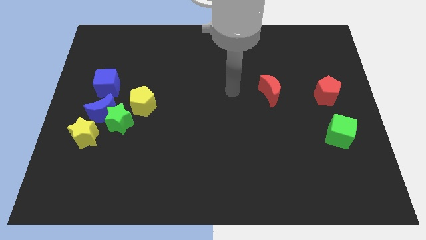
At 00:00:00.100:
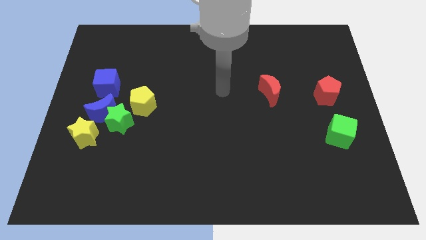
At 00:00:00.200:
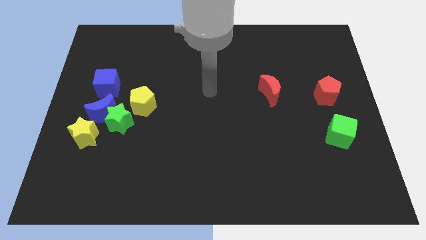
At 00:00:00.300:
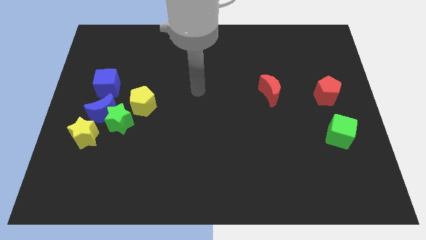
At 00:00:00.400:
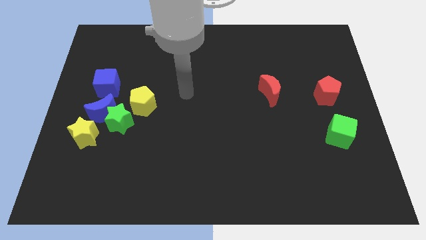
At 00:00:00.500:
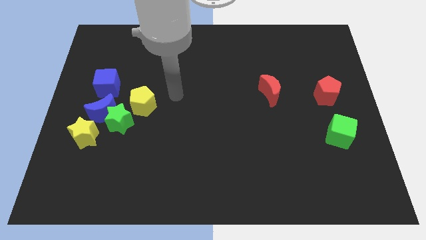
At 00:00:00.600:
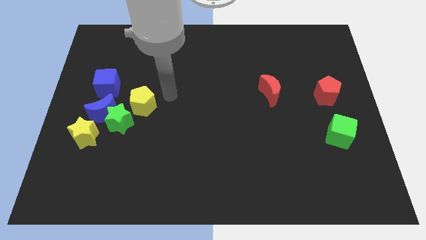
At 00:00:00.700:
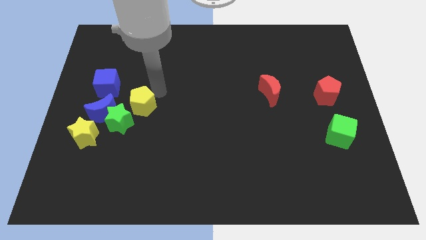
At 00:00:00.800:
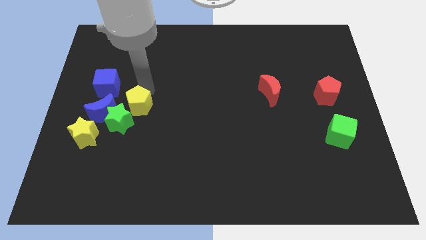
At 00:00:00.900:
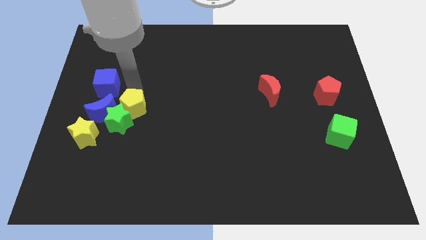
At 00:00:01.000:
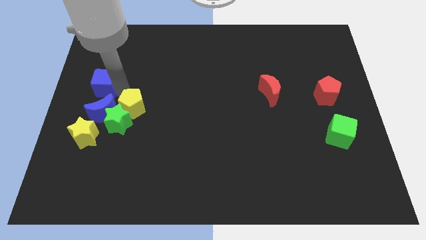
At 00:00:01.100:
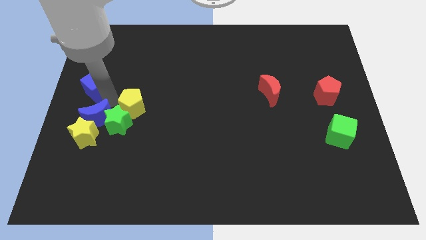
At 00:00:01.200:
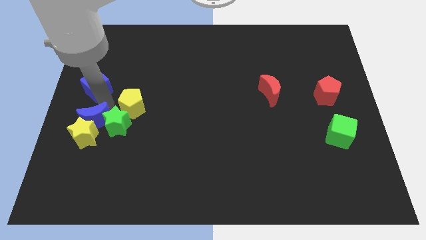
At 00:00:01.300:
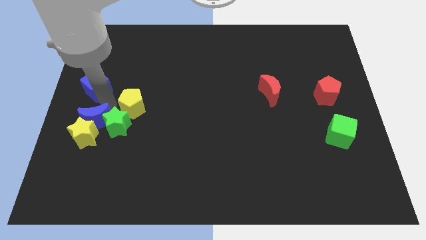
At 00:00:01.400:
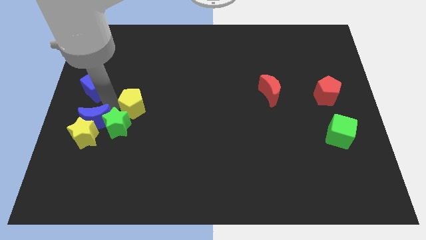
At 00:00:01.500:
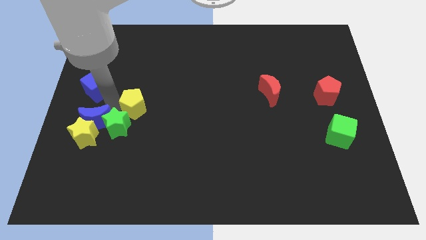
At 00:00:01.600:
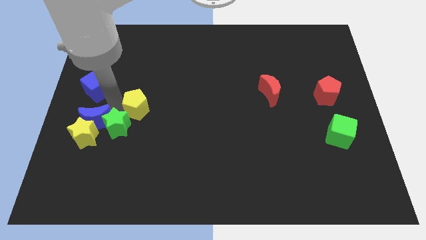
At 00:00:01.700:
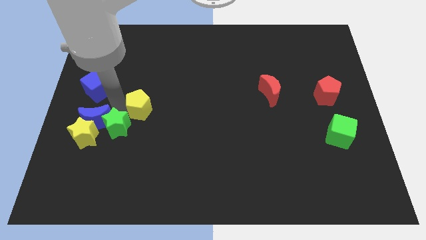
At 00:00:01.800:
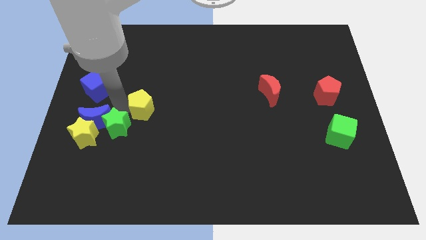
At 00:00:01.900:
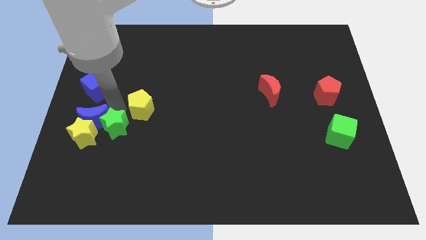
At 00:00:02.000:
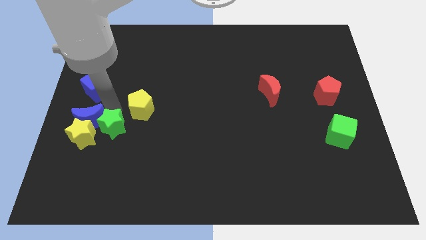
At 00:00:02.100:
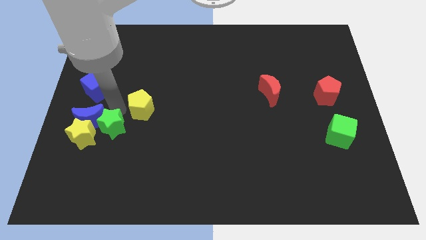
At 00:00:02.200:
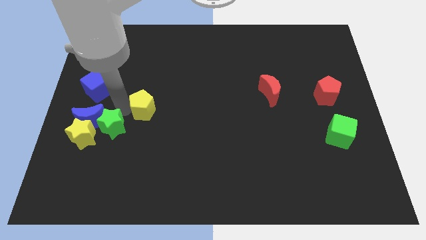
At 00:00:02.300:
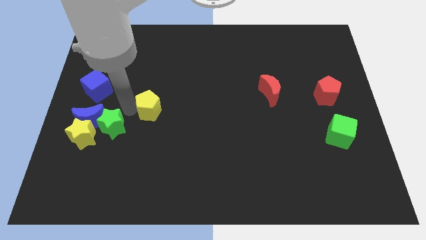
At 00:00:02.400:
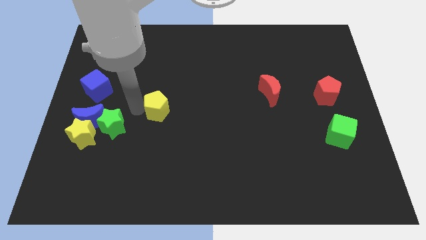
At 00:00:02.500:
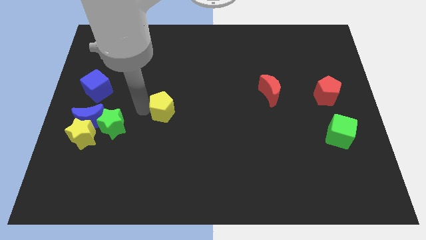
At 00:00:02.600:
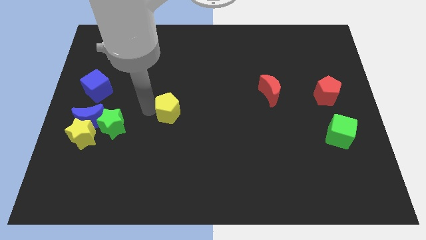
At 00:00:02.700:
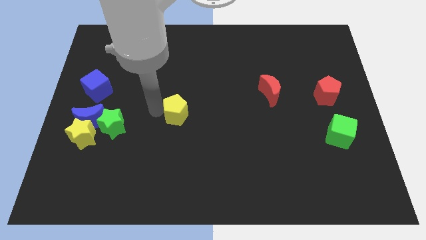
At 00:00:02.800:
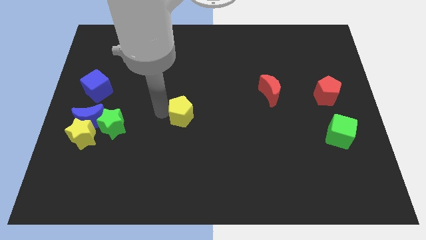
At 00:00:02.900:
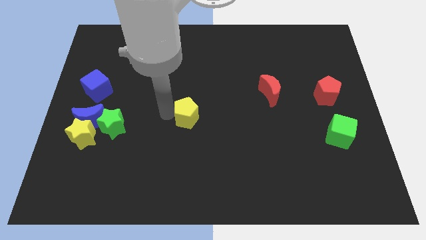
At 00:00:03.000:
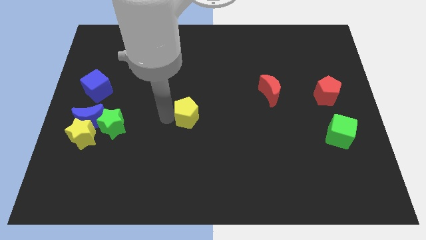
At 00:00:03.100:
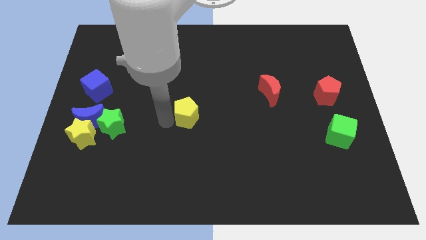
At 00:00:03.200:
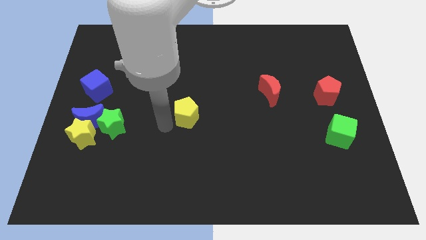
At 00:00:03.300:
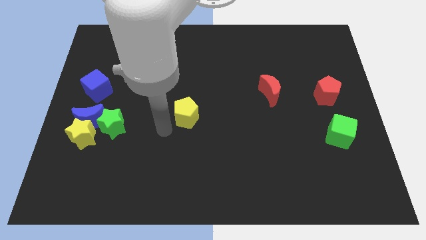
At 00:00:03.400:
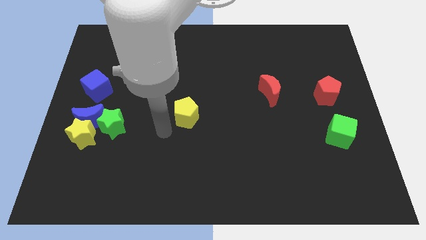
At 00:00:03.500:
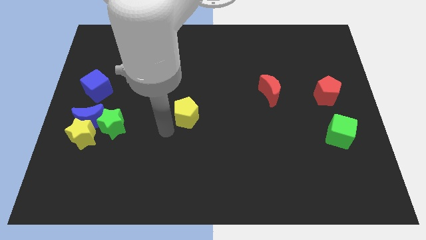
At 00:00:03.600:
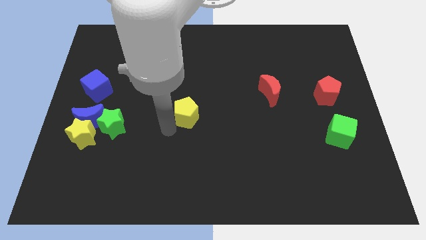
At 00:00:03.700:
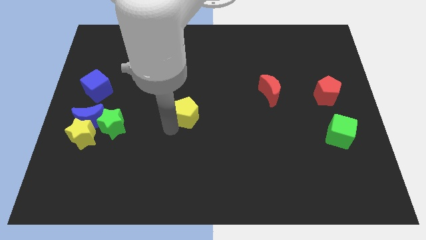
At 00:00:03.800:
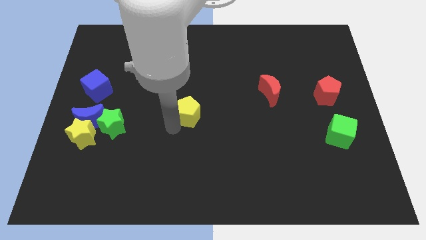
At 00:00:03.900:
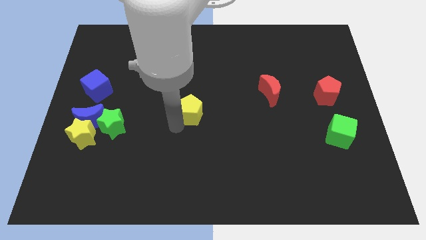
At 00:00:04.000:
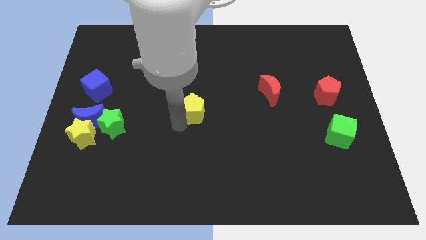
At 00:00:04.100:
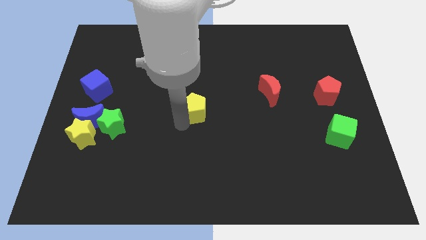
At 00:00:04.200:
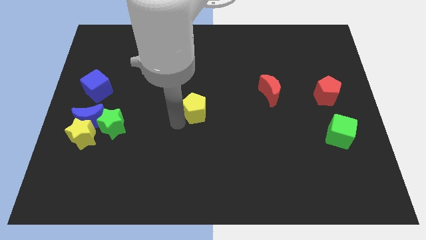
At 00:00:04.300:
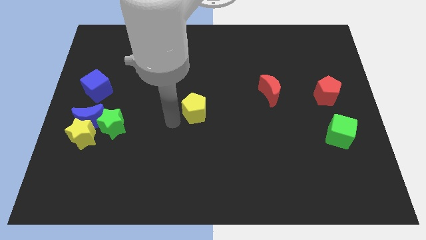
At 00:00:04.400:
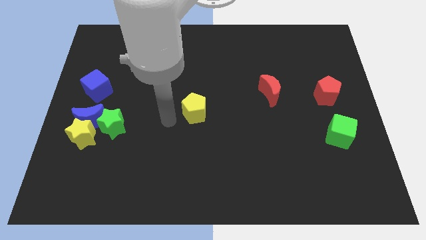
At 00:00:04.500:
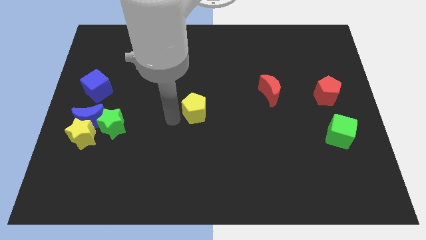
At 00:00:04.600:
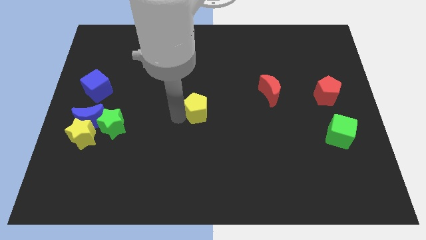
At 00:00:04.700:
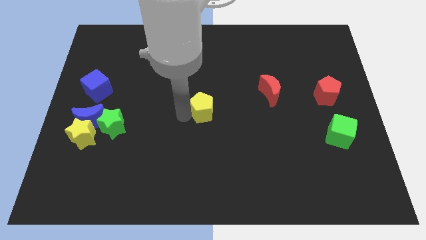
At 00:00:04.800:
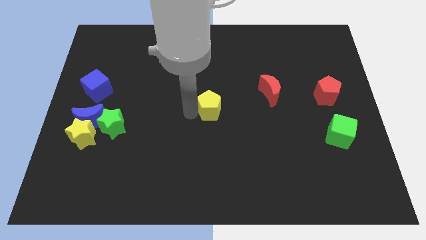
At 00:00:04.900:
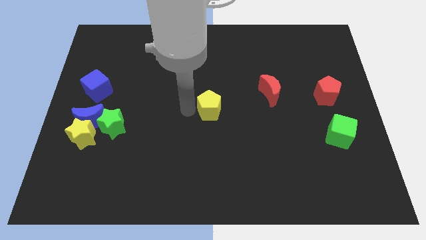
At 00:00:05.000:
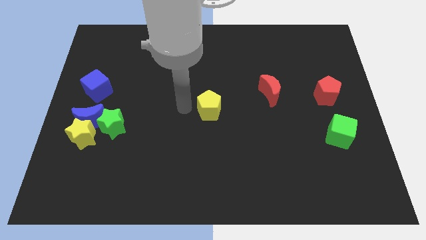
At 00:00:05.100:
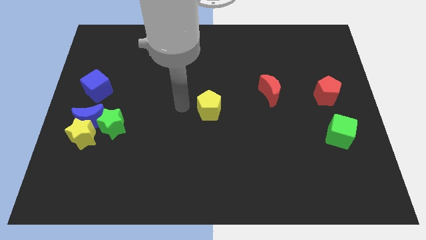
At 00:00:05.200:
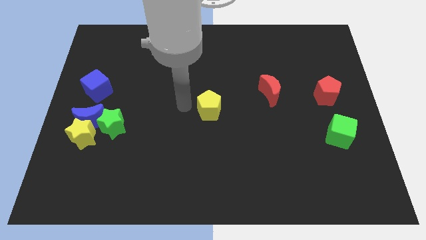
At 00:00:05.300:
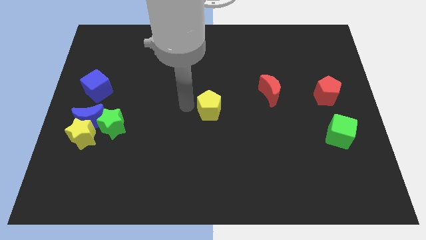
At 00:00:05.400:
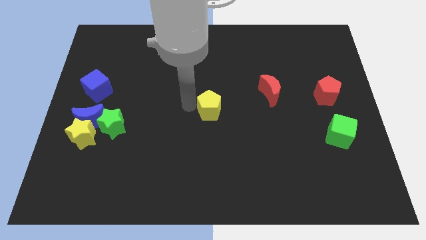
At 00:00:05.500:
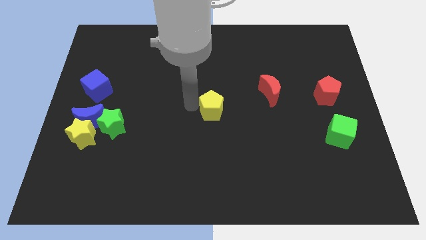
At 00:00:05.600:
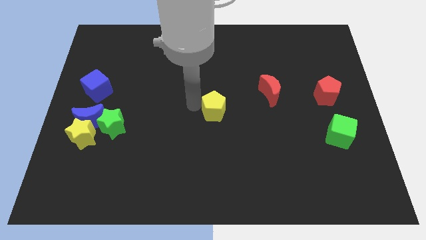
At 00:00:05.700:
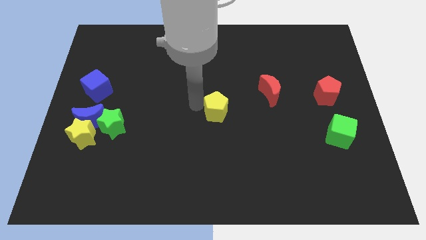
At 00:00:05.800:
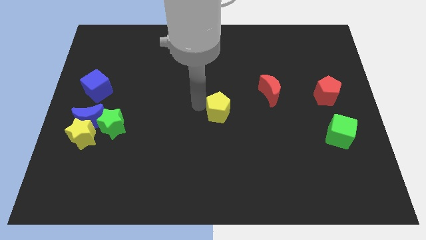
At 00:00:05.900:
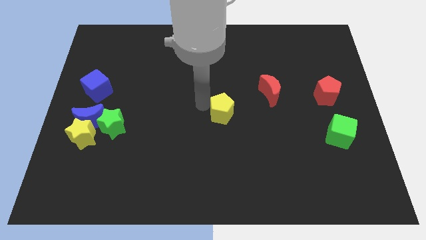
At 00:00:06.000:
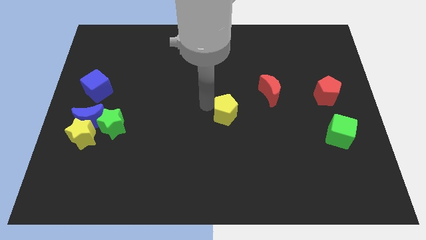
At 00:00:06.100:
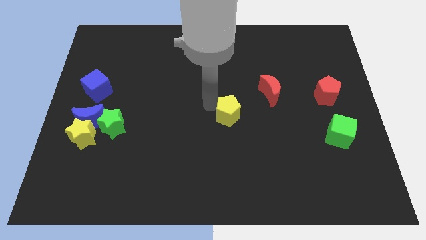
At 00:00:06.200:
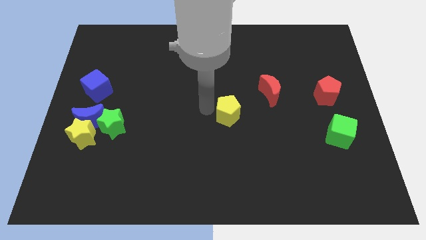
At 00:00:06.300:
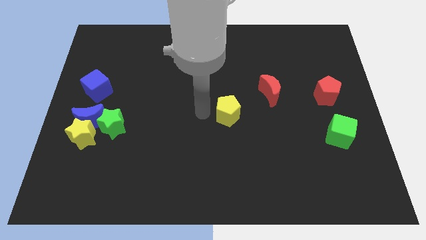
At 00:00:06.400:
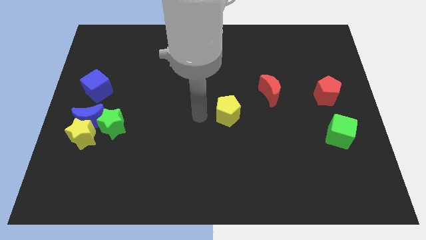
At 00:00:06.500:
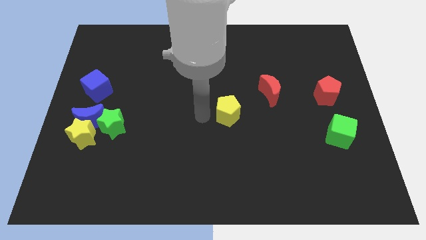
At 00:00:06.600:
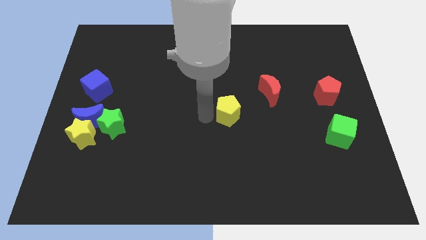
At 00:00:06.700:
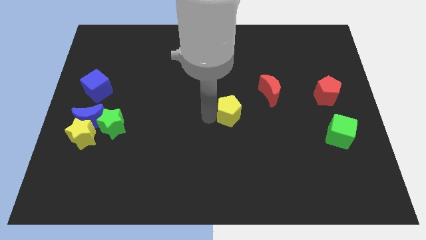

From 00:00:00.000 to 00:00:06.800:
push the yellow pentagon to the right

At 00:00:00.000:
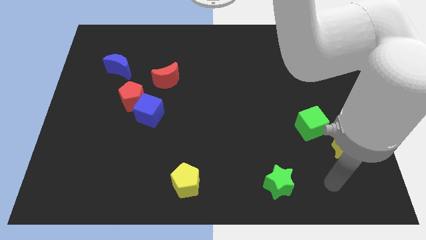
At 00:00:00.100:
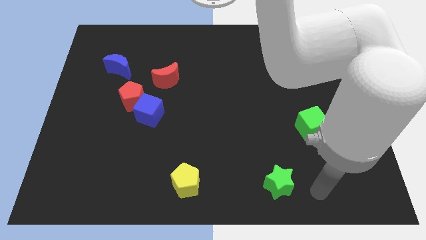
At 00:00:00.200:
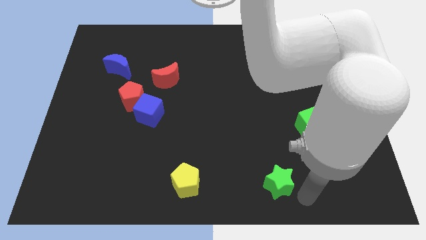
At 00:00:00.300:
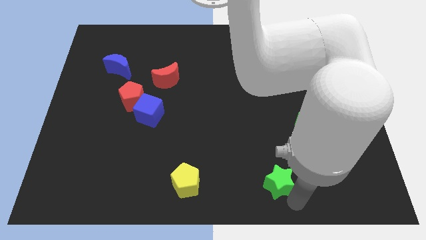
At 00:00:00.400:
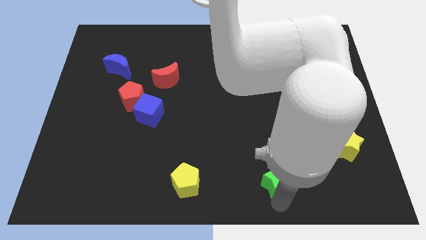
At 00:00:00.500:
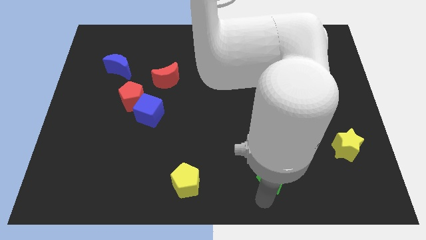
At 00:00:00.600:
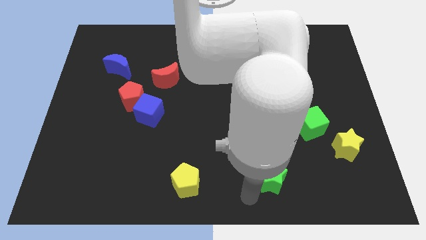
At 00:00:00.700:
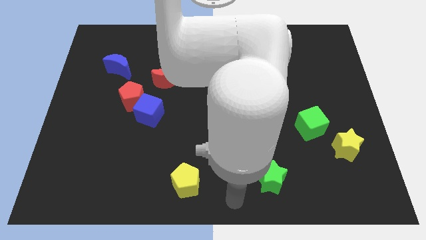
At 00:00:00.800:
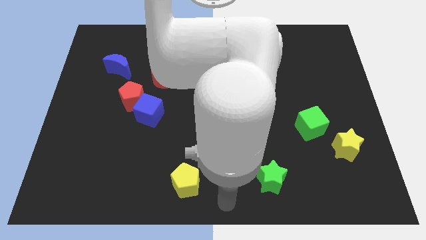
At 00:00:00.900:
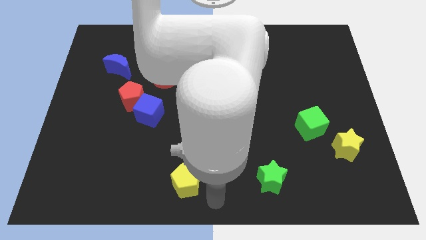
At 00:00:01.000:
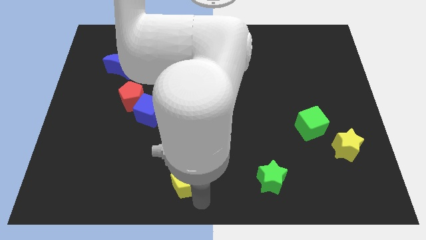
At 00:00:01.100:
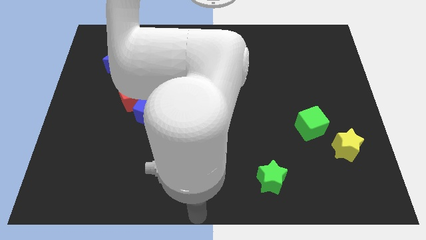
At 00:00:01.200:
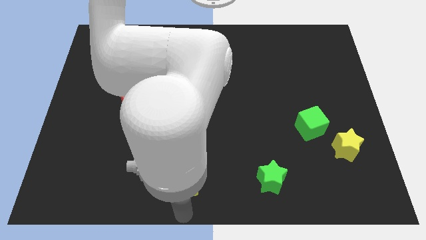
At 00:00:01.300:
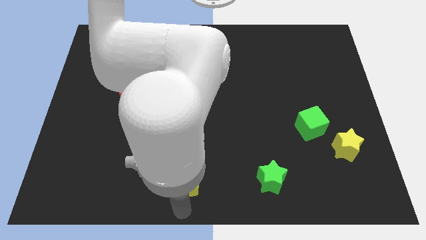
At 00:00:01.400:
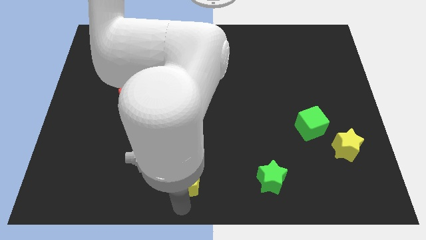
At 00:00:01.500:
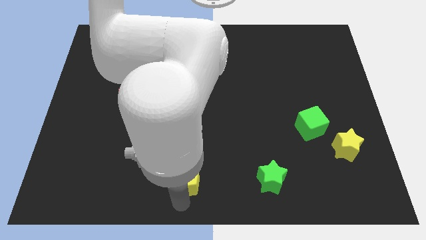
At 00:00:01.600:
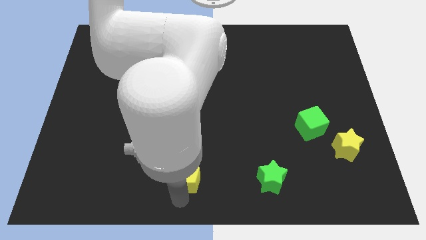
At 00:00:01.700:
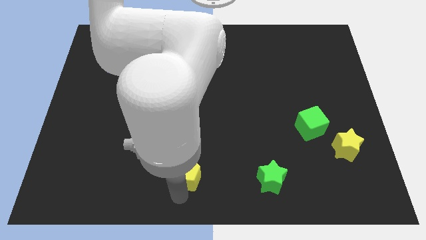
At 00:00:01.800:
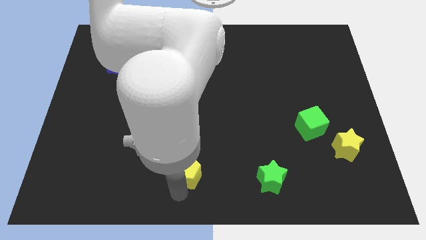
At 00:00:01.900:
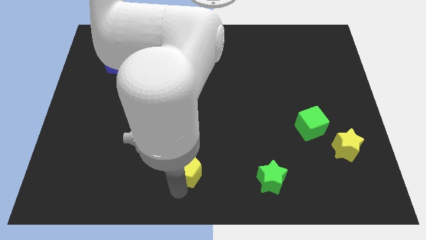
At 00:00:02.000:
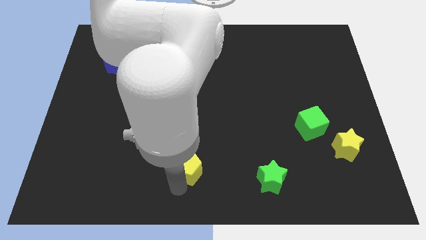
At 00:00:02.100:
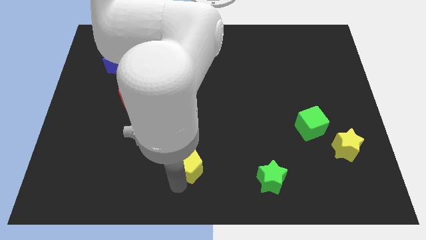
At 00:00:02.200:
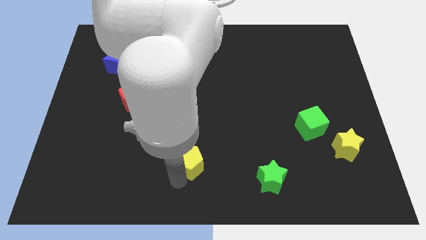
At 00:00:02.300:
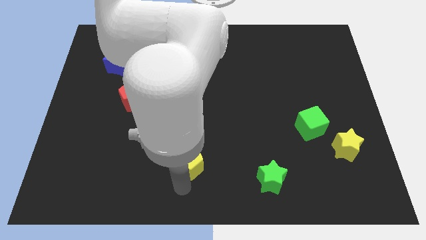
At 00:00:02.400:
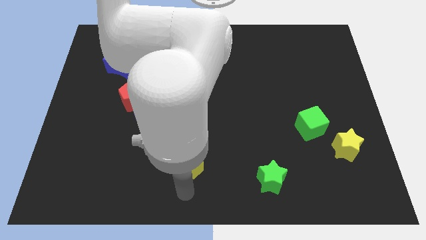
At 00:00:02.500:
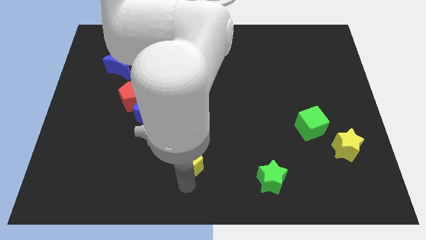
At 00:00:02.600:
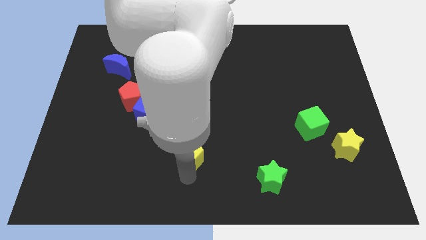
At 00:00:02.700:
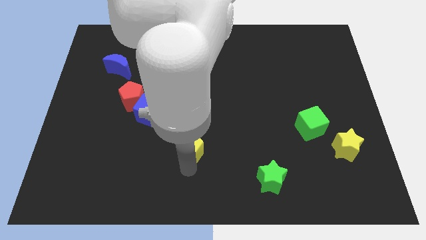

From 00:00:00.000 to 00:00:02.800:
slide the yellow pentagon up a little bit
